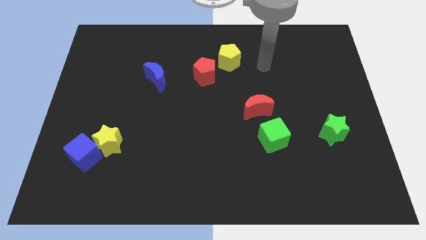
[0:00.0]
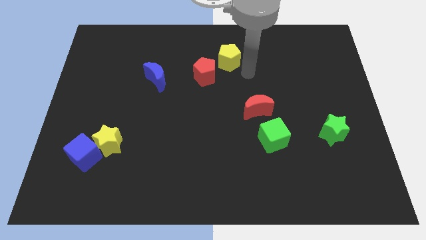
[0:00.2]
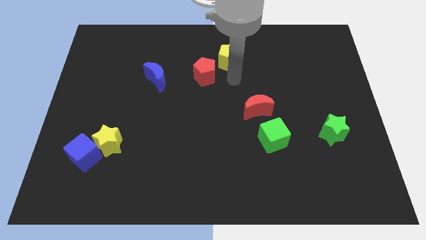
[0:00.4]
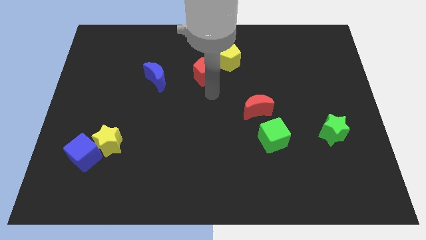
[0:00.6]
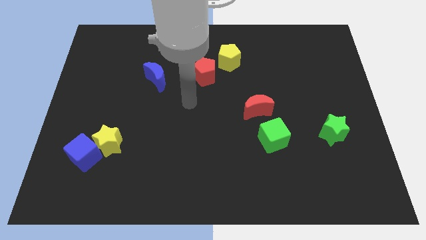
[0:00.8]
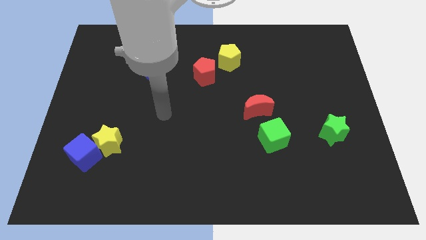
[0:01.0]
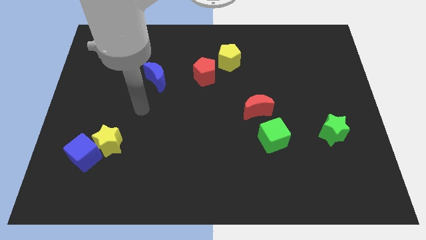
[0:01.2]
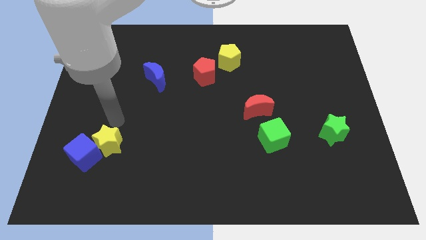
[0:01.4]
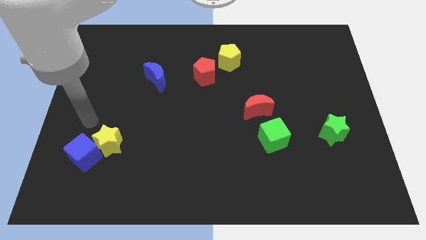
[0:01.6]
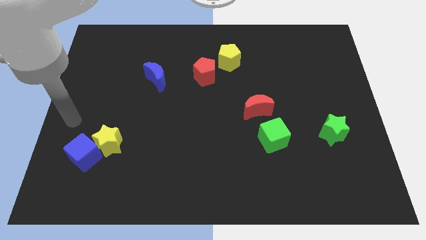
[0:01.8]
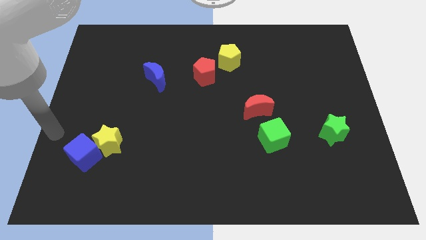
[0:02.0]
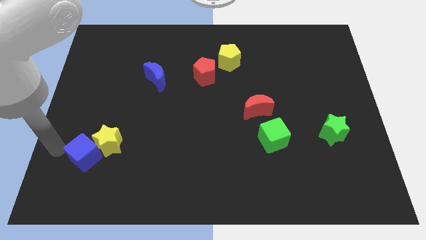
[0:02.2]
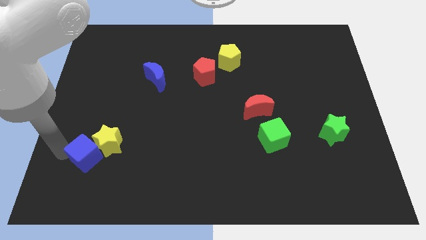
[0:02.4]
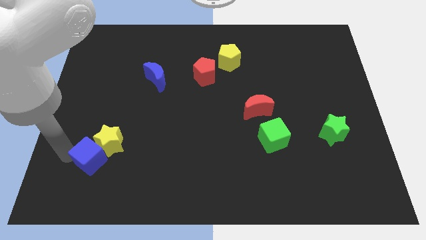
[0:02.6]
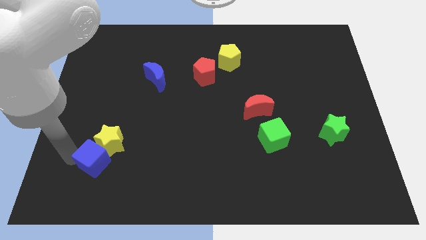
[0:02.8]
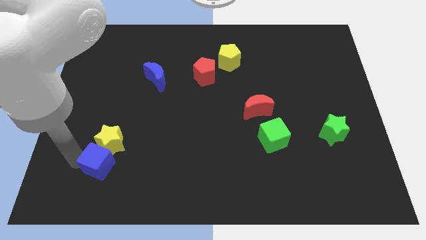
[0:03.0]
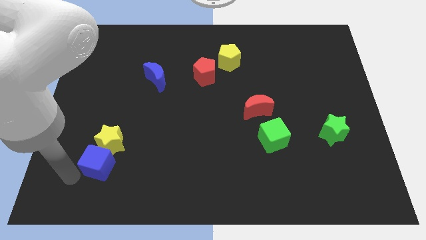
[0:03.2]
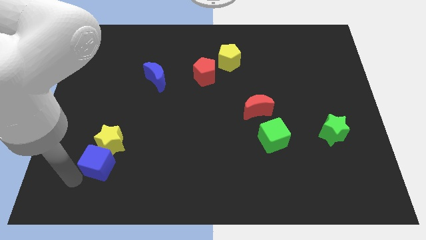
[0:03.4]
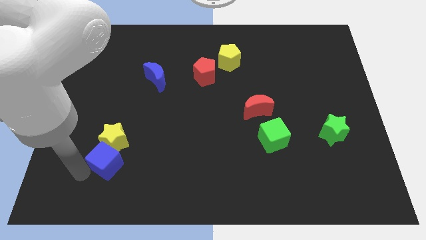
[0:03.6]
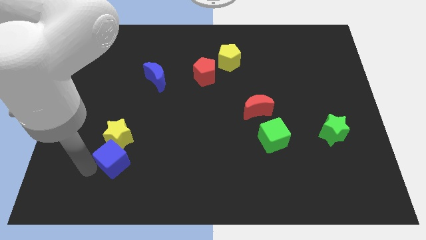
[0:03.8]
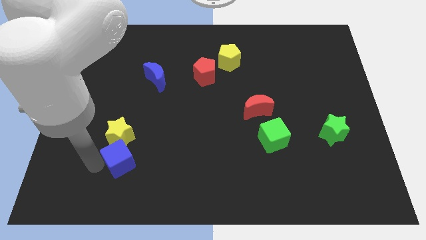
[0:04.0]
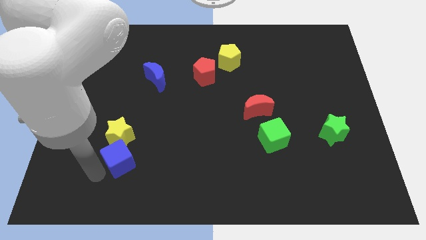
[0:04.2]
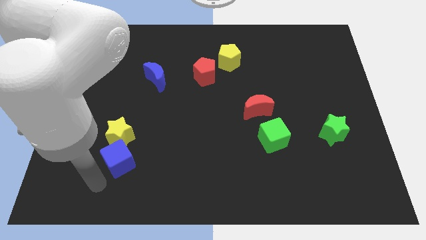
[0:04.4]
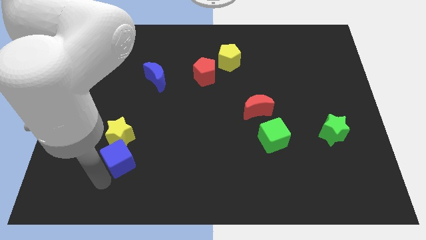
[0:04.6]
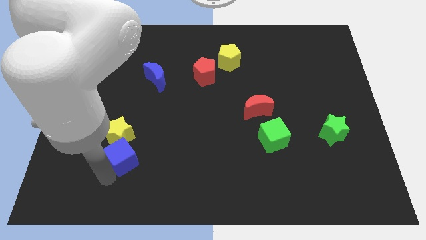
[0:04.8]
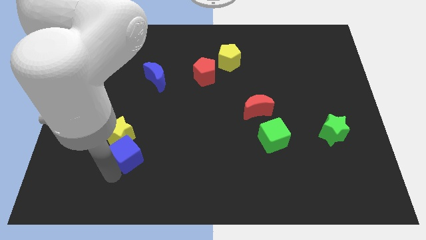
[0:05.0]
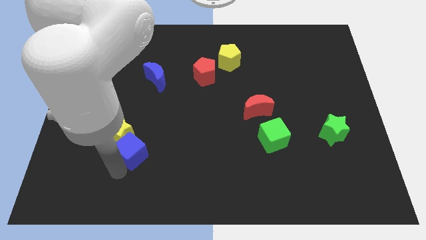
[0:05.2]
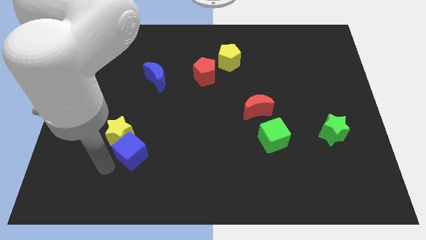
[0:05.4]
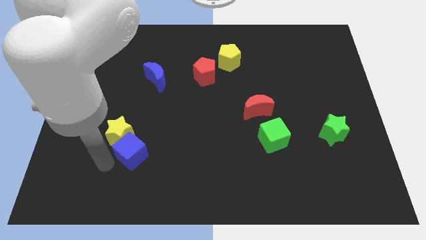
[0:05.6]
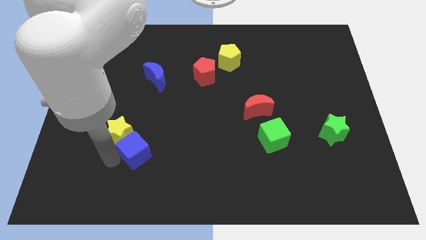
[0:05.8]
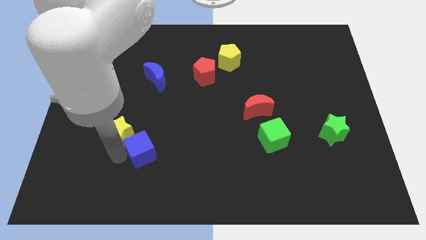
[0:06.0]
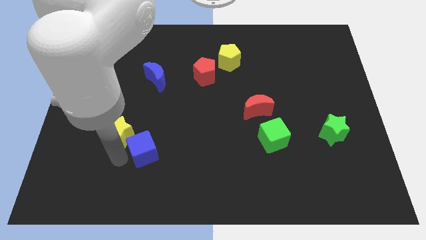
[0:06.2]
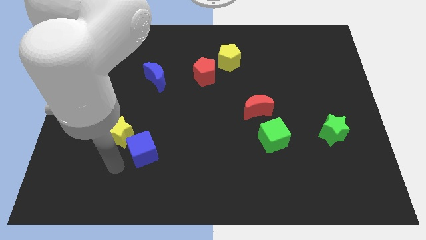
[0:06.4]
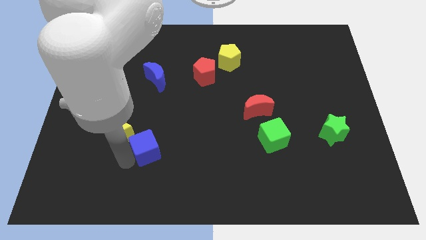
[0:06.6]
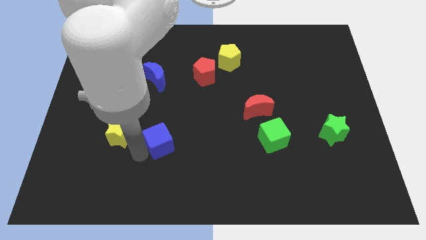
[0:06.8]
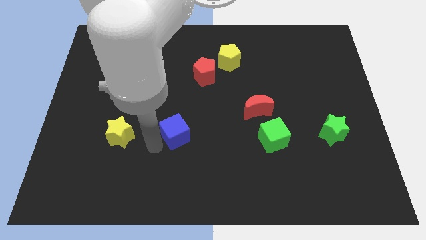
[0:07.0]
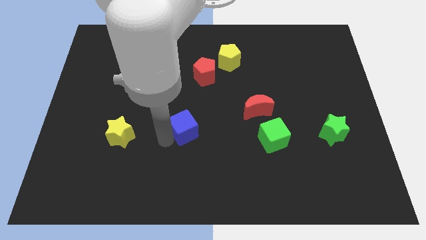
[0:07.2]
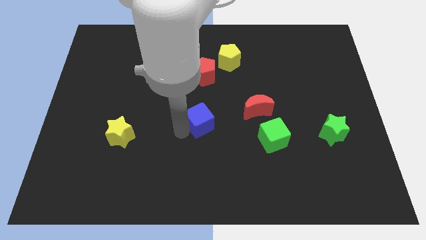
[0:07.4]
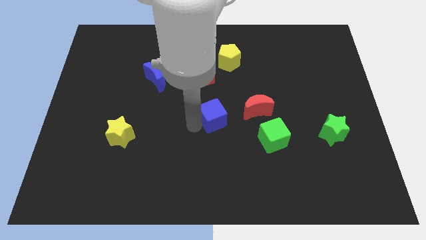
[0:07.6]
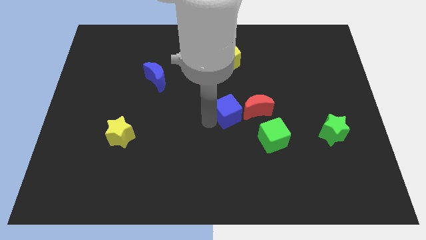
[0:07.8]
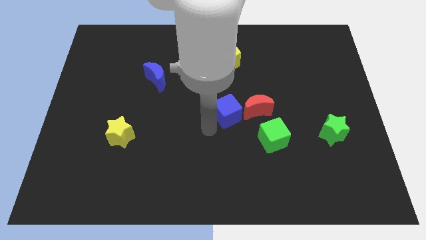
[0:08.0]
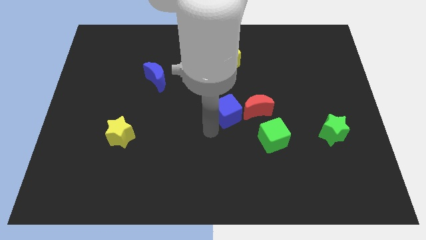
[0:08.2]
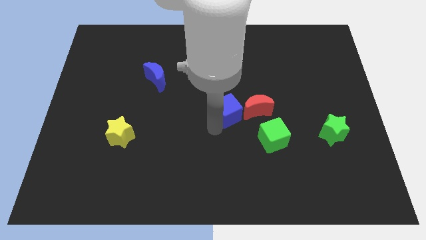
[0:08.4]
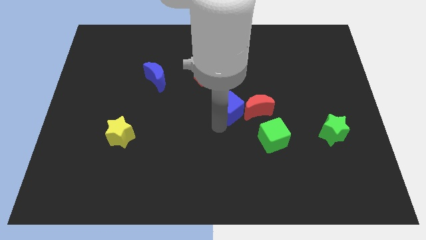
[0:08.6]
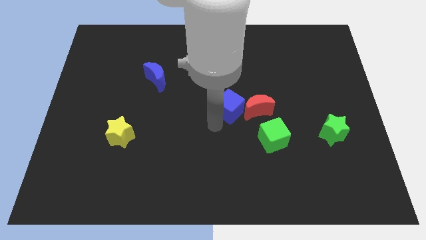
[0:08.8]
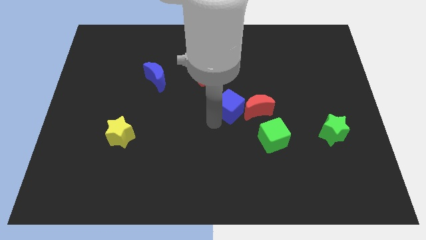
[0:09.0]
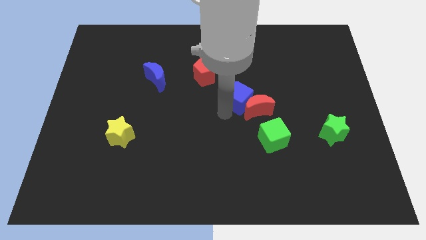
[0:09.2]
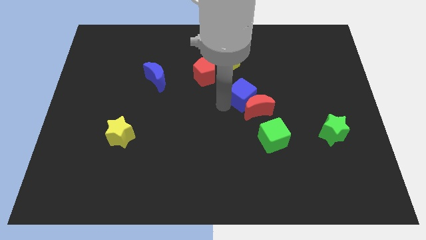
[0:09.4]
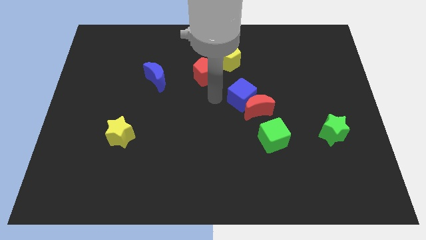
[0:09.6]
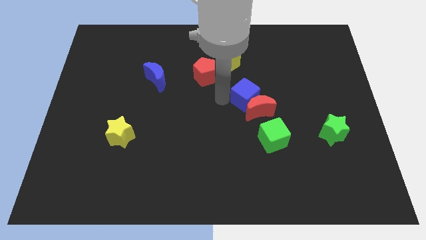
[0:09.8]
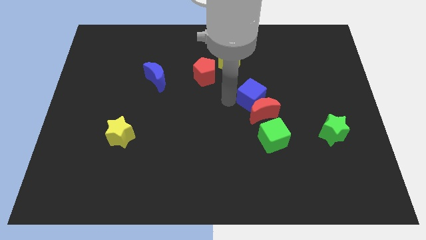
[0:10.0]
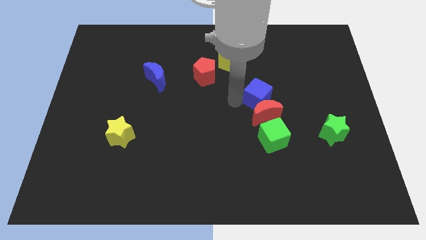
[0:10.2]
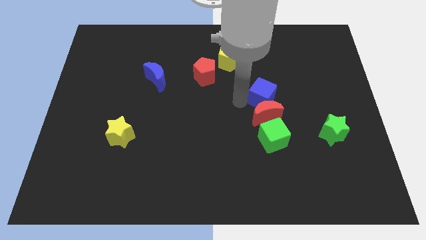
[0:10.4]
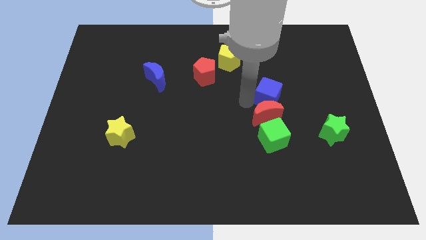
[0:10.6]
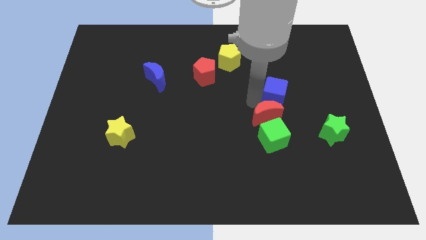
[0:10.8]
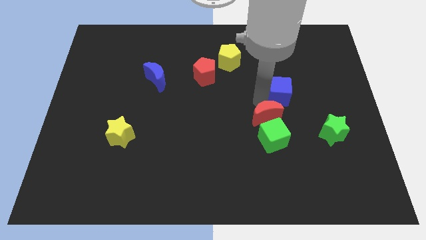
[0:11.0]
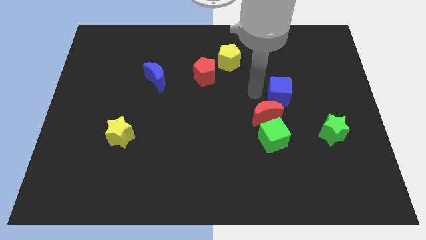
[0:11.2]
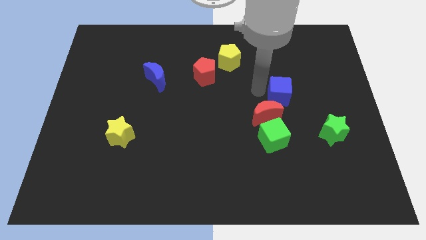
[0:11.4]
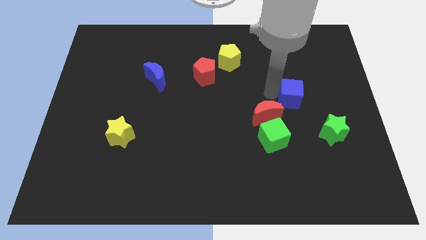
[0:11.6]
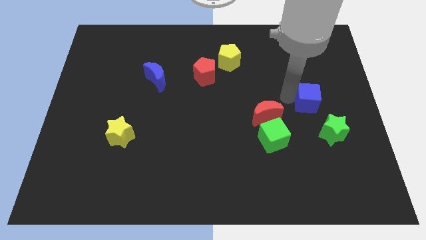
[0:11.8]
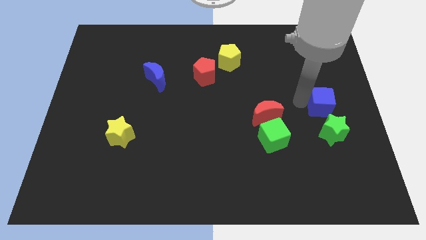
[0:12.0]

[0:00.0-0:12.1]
move the blue cube to the right side of the board
